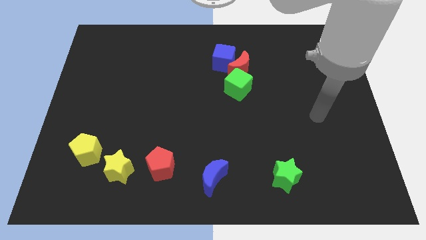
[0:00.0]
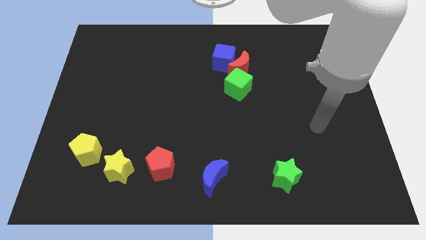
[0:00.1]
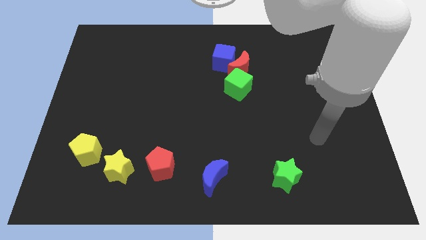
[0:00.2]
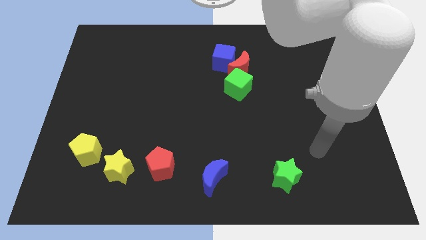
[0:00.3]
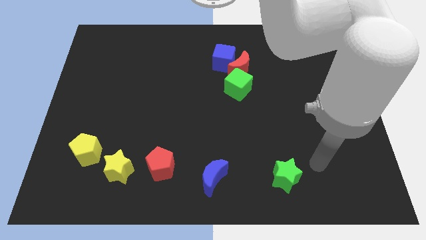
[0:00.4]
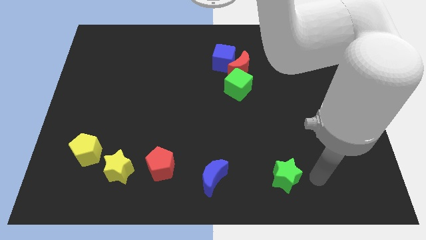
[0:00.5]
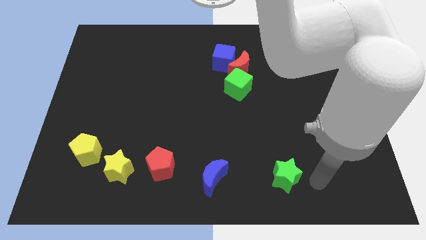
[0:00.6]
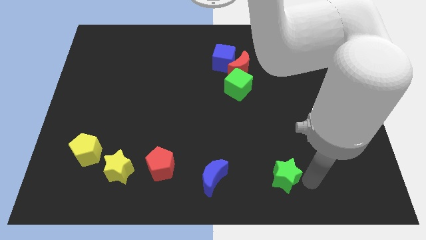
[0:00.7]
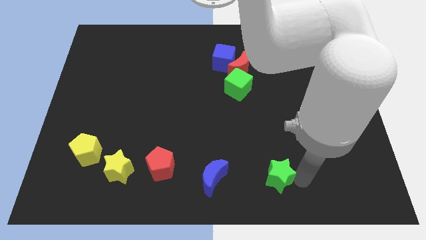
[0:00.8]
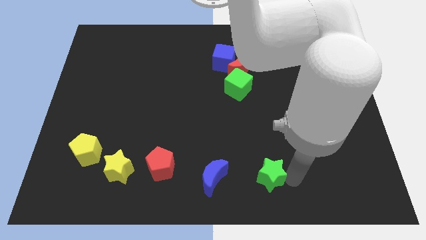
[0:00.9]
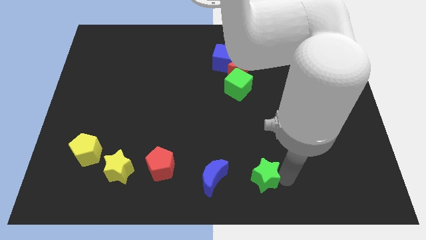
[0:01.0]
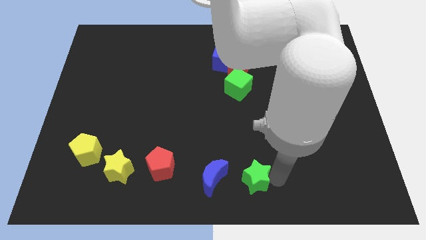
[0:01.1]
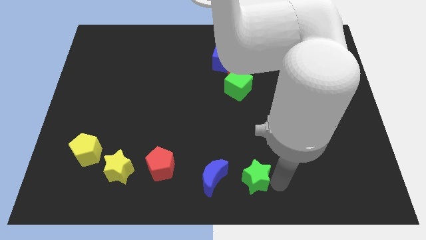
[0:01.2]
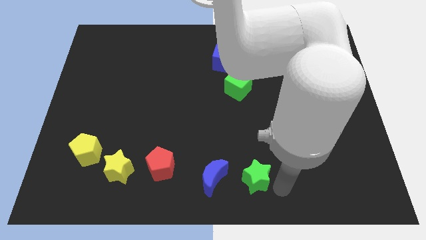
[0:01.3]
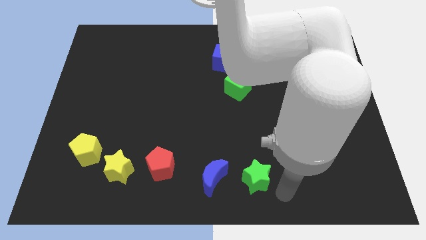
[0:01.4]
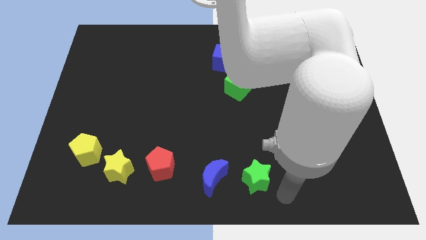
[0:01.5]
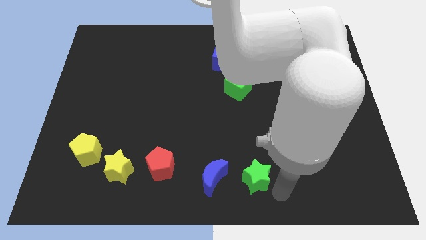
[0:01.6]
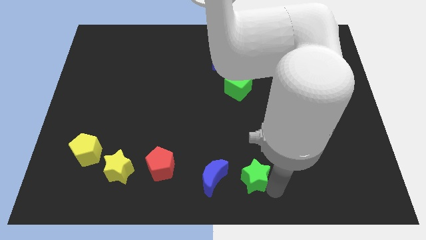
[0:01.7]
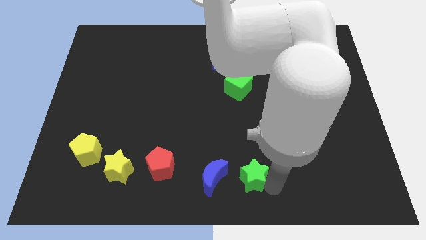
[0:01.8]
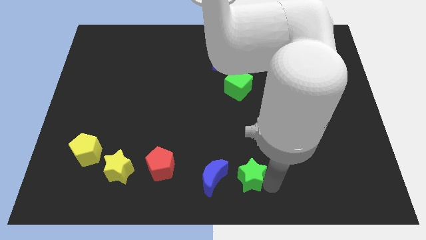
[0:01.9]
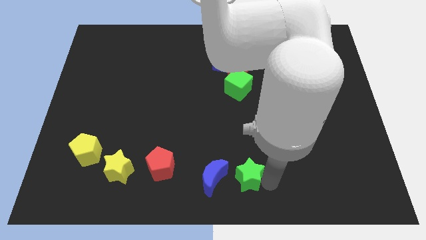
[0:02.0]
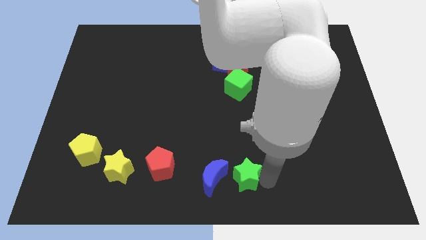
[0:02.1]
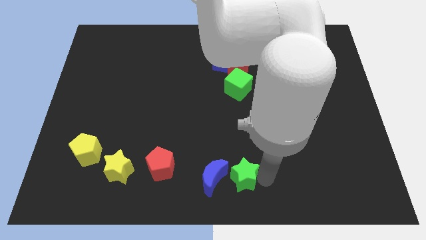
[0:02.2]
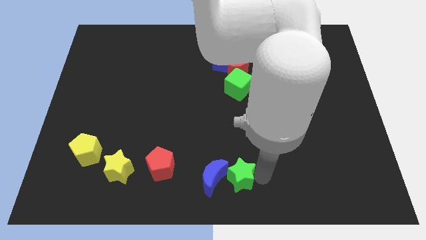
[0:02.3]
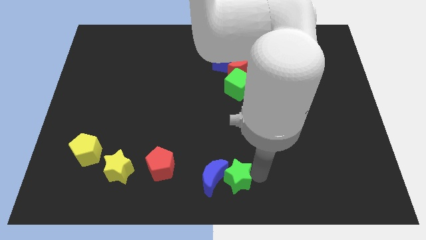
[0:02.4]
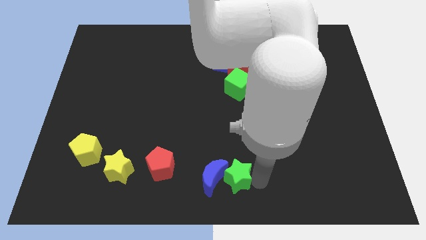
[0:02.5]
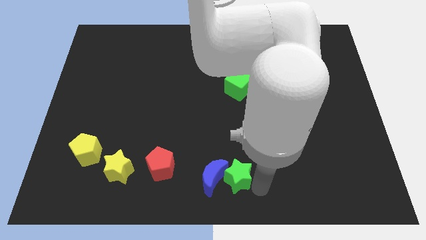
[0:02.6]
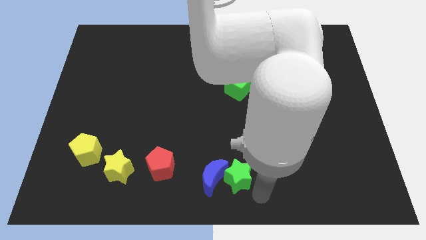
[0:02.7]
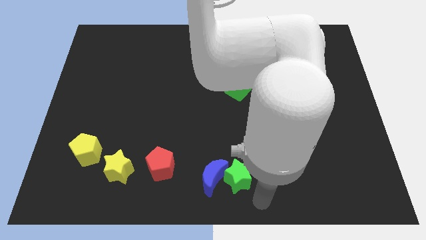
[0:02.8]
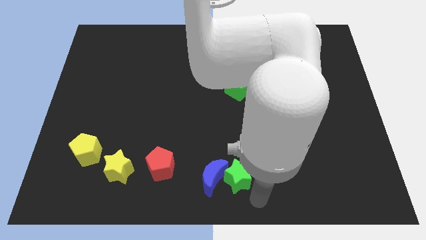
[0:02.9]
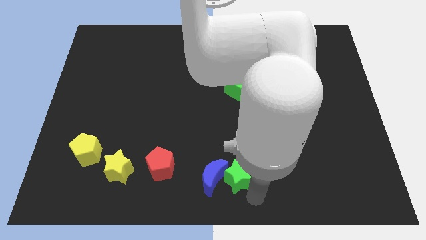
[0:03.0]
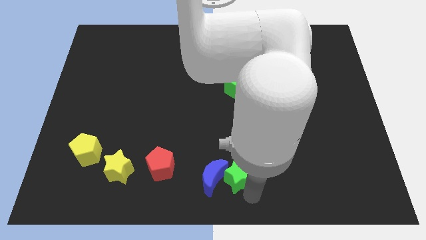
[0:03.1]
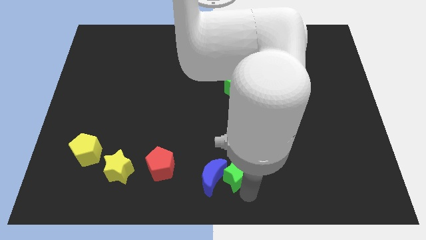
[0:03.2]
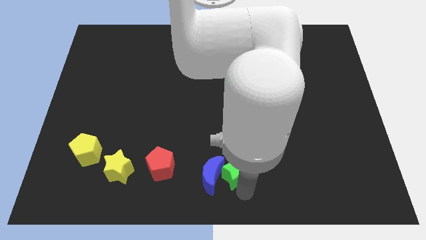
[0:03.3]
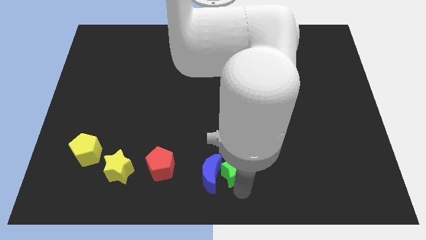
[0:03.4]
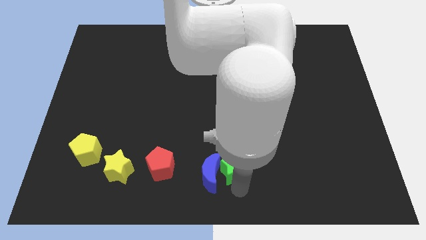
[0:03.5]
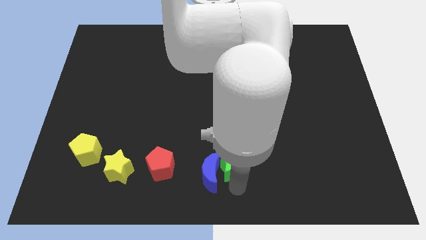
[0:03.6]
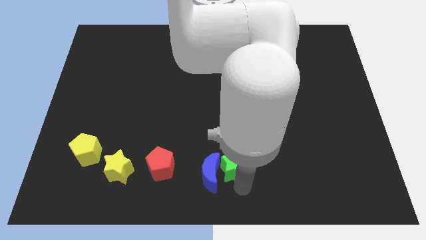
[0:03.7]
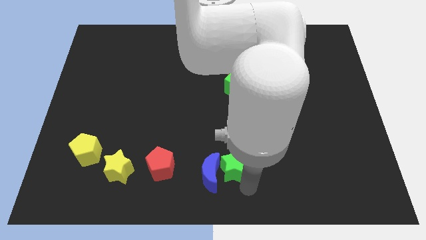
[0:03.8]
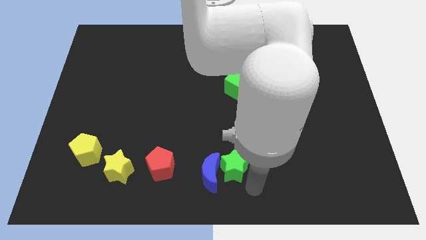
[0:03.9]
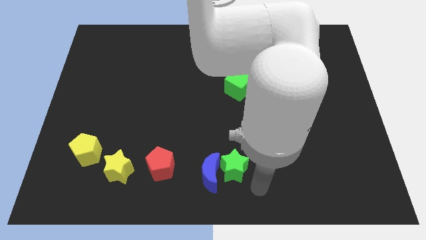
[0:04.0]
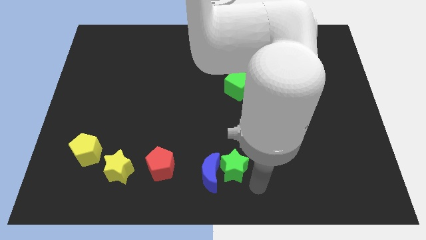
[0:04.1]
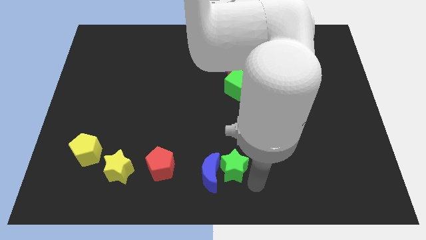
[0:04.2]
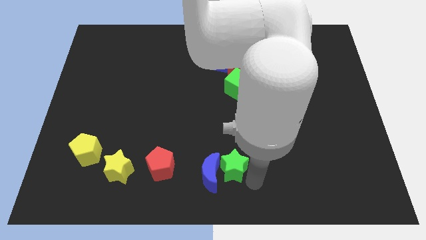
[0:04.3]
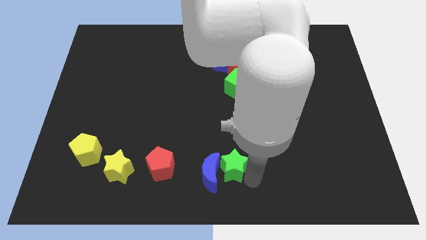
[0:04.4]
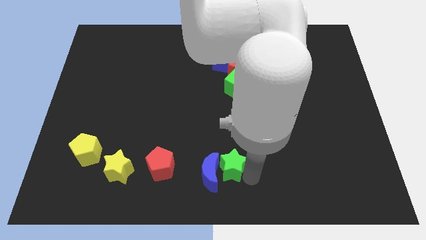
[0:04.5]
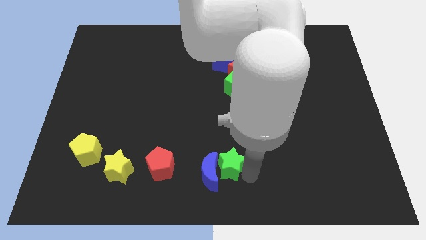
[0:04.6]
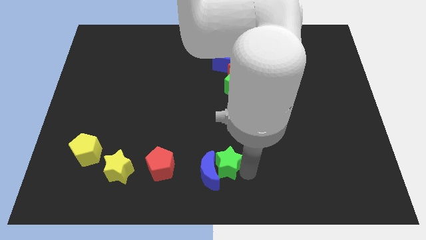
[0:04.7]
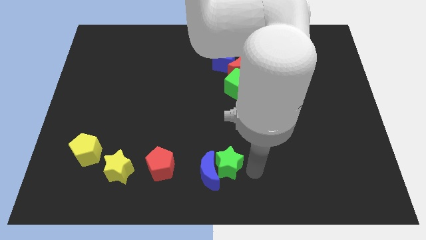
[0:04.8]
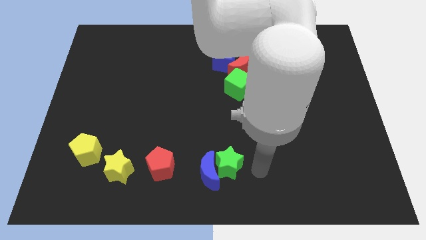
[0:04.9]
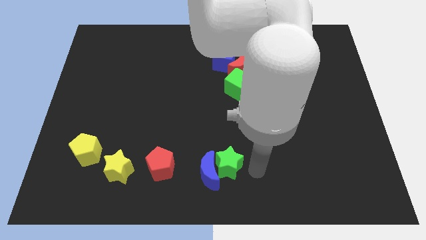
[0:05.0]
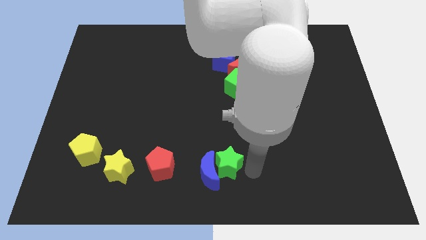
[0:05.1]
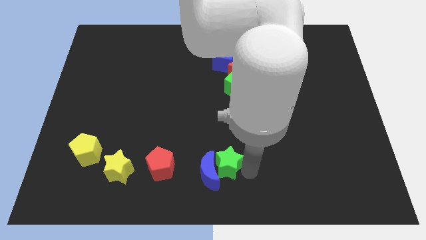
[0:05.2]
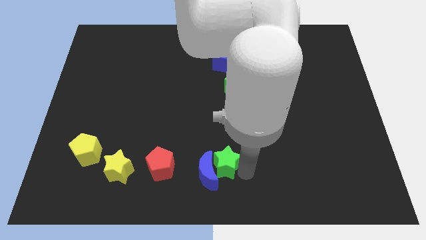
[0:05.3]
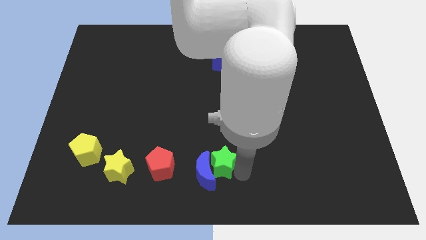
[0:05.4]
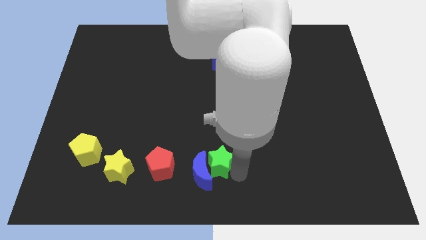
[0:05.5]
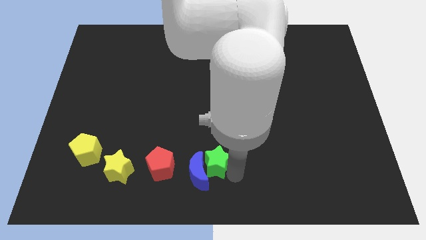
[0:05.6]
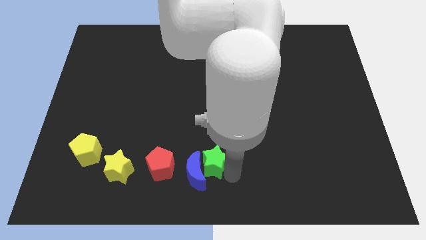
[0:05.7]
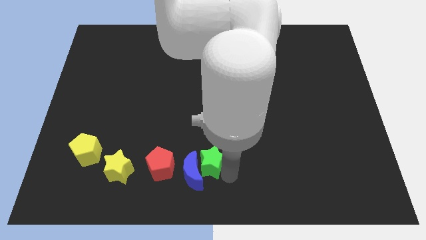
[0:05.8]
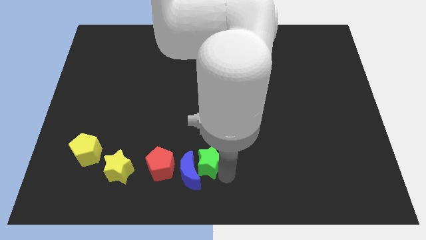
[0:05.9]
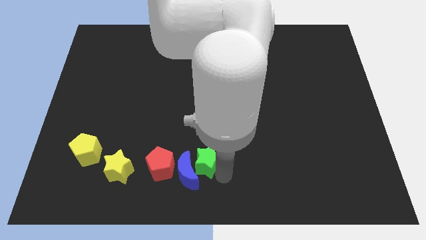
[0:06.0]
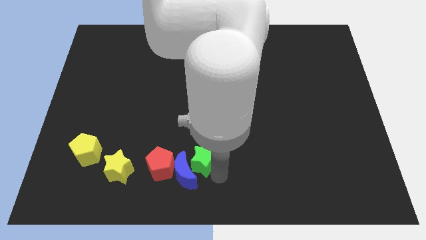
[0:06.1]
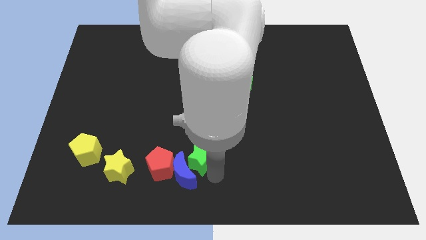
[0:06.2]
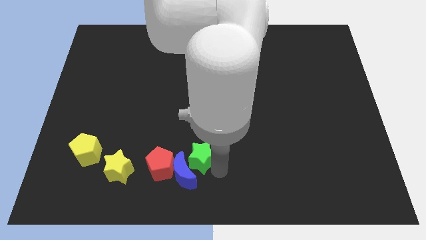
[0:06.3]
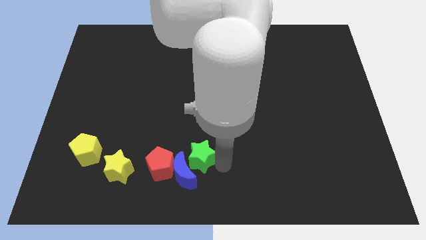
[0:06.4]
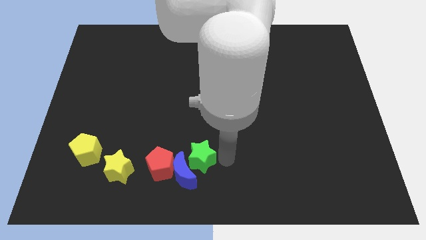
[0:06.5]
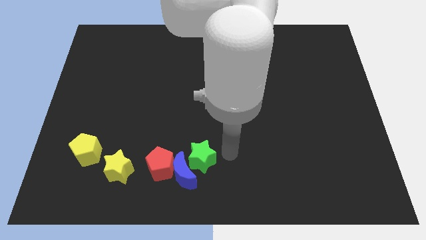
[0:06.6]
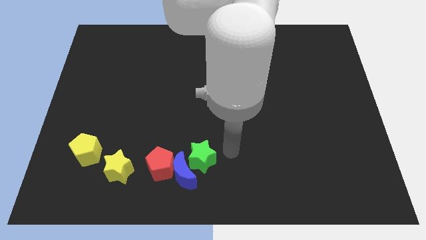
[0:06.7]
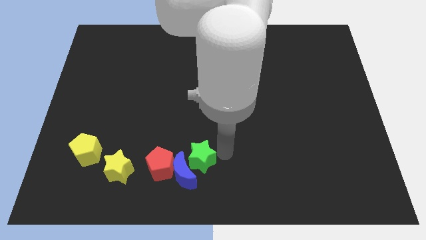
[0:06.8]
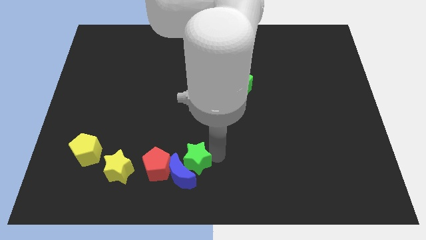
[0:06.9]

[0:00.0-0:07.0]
put the green star just right of the yellow star

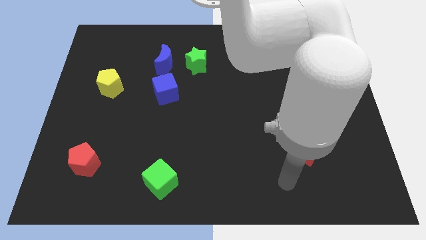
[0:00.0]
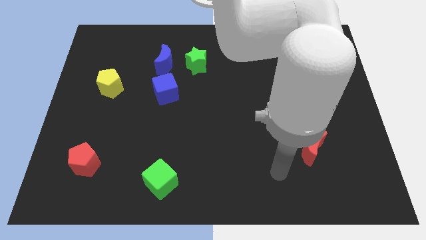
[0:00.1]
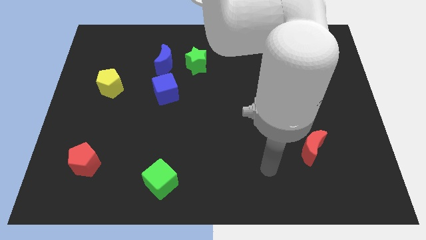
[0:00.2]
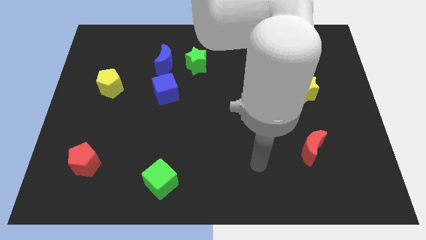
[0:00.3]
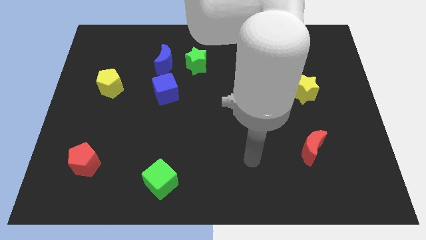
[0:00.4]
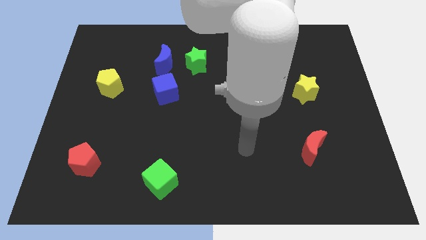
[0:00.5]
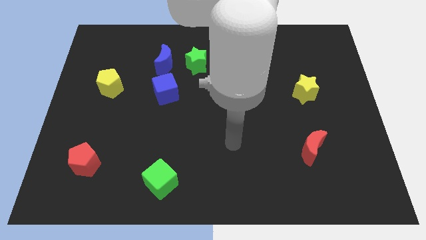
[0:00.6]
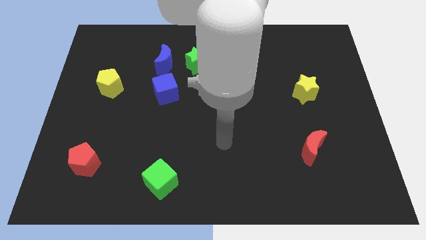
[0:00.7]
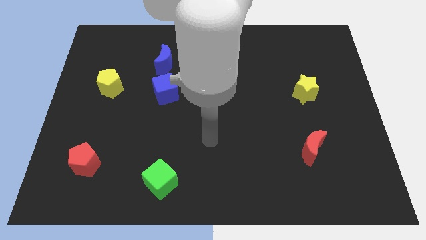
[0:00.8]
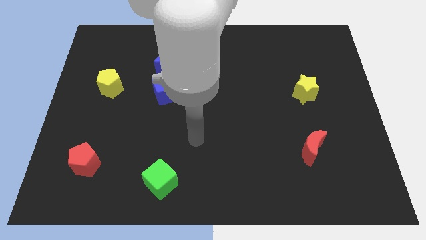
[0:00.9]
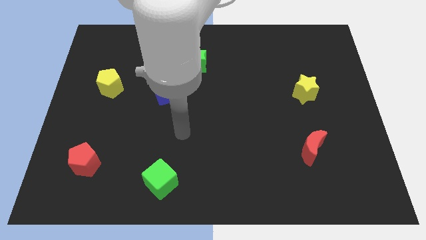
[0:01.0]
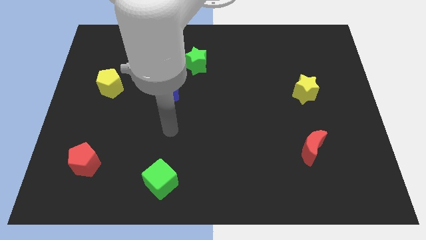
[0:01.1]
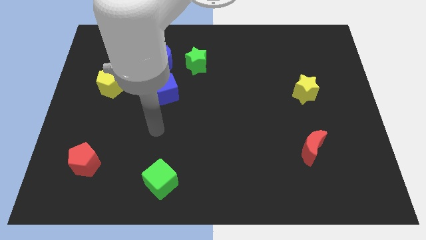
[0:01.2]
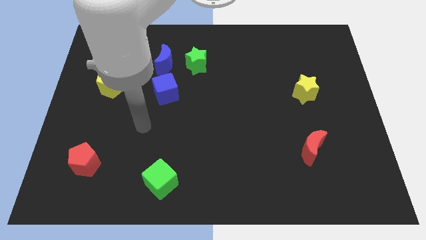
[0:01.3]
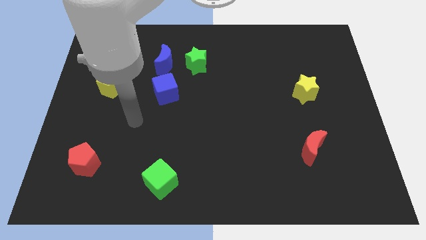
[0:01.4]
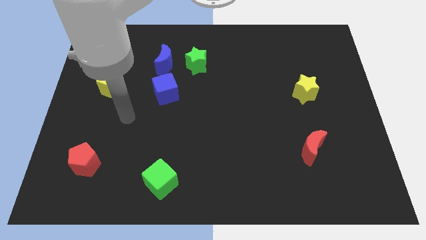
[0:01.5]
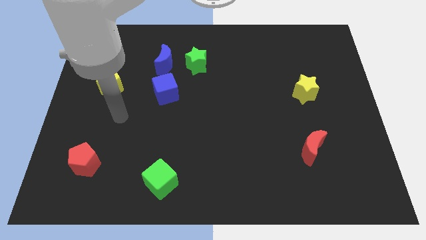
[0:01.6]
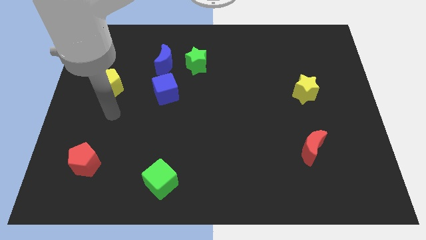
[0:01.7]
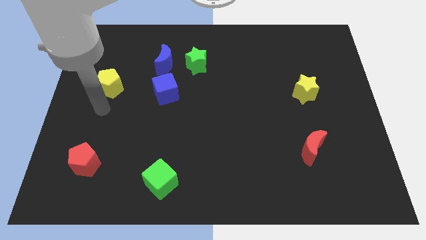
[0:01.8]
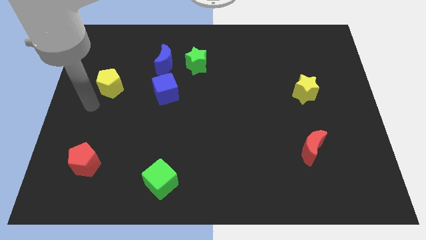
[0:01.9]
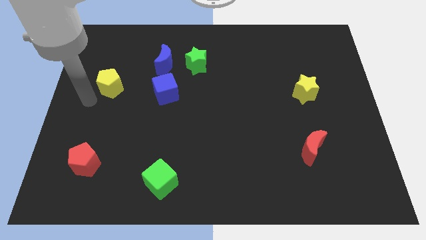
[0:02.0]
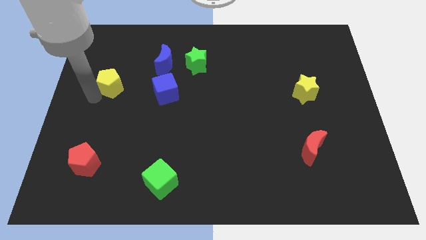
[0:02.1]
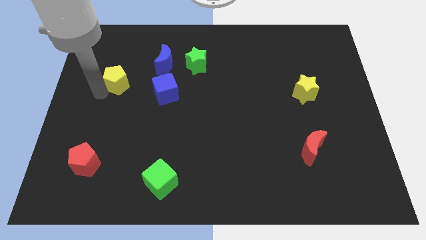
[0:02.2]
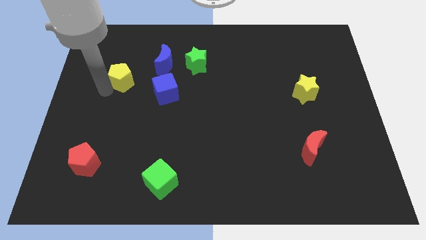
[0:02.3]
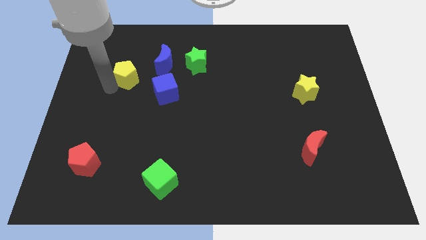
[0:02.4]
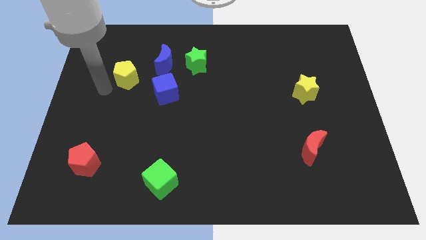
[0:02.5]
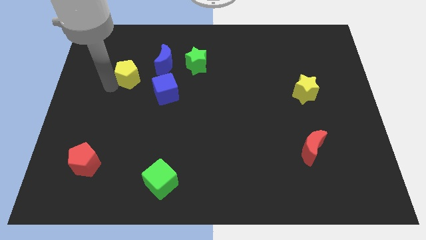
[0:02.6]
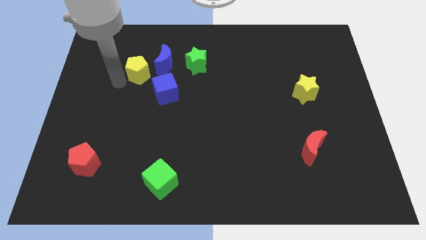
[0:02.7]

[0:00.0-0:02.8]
slide the yellow pentagon left of the green star
